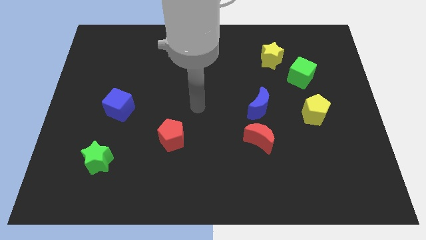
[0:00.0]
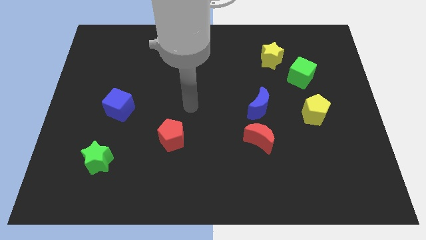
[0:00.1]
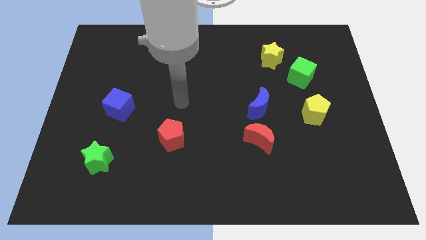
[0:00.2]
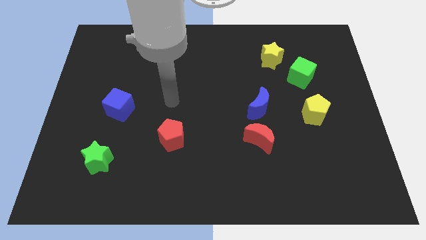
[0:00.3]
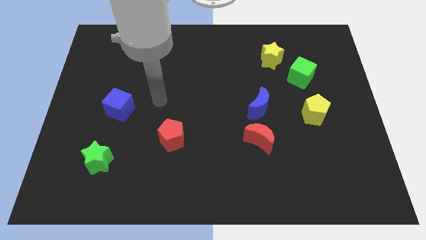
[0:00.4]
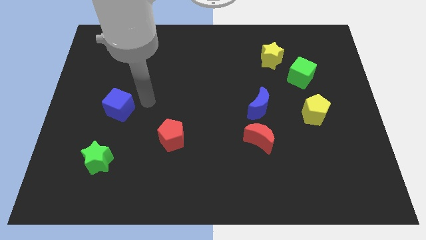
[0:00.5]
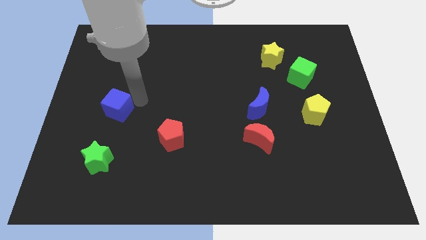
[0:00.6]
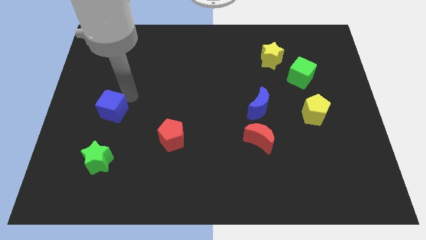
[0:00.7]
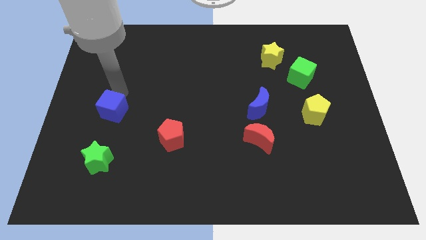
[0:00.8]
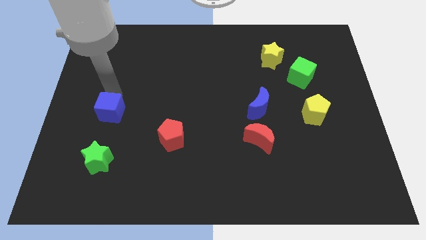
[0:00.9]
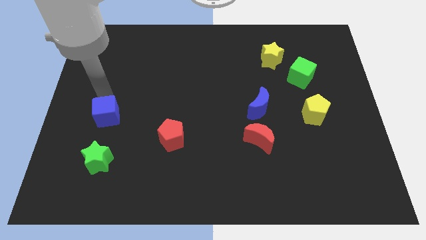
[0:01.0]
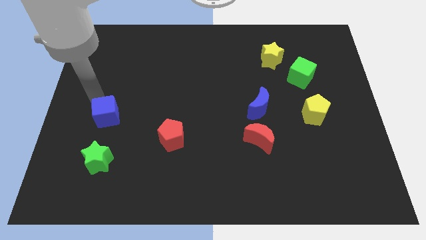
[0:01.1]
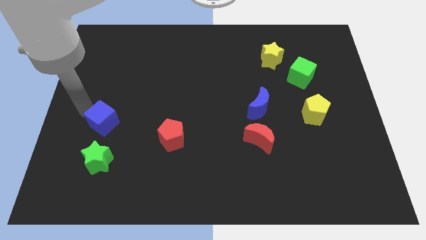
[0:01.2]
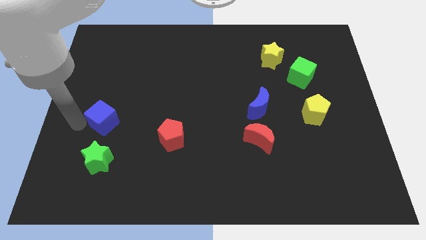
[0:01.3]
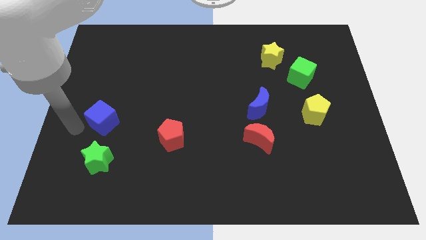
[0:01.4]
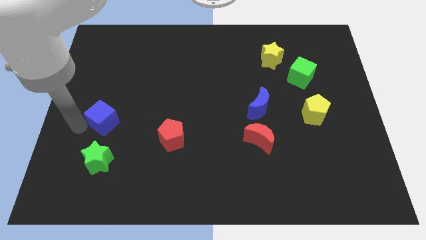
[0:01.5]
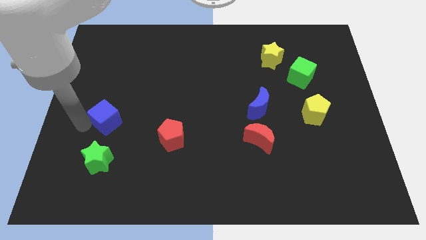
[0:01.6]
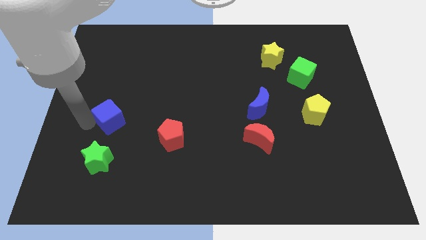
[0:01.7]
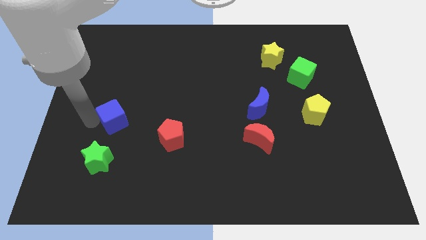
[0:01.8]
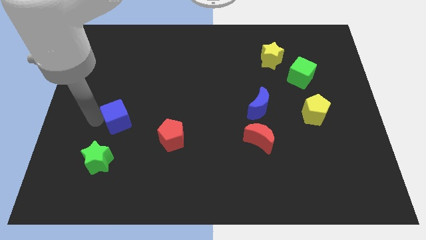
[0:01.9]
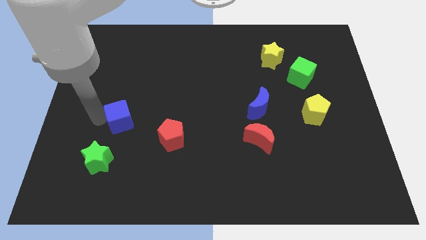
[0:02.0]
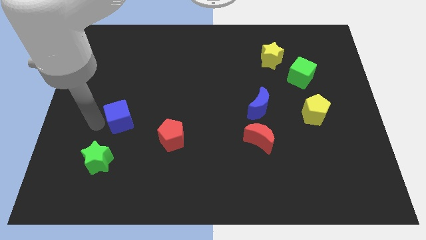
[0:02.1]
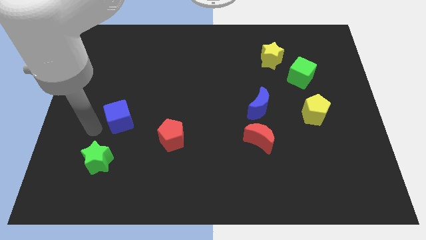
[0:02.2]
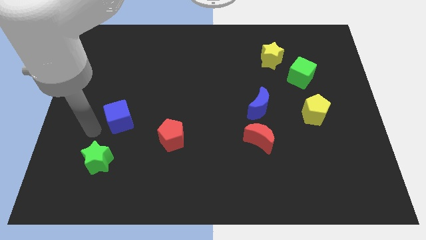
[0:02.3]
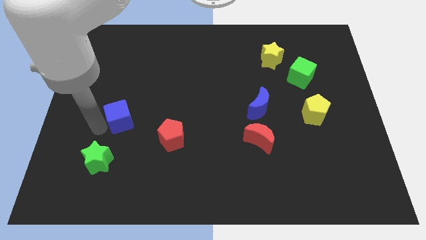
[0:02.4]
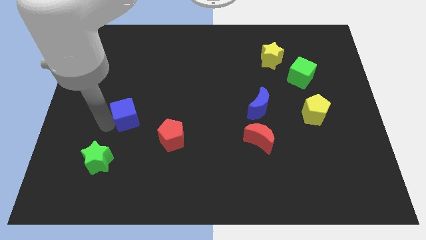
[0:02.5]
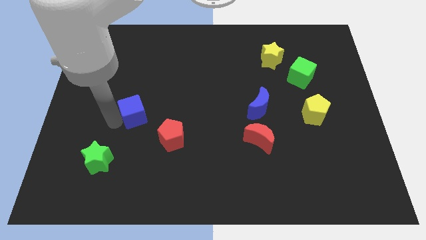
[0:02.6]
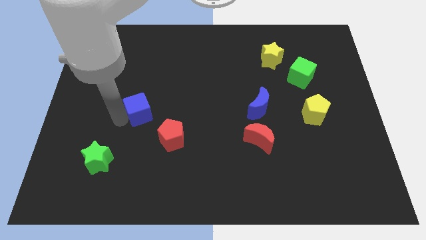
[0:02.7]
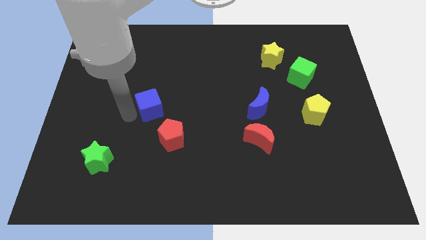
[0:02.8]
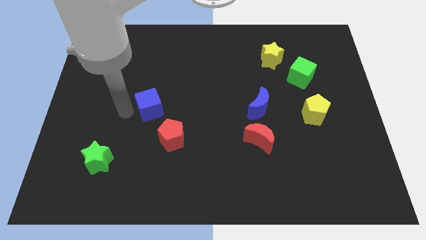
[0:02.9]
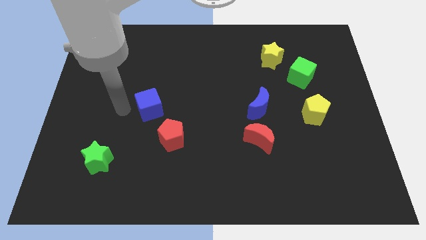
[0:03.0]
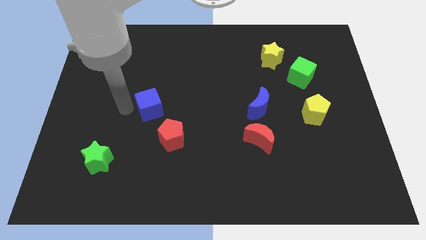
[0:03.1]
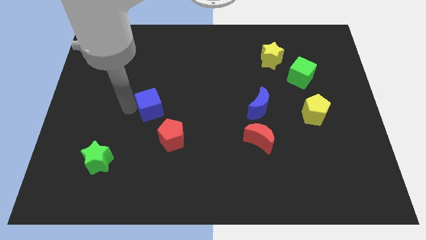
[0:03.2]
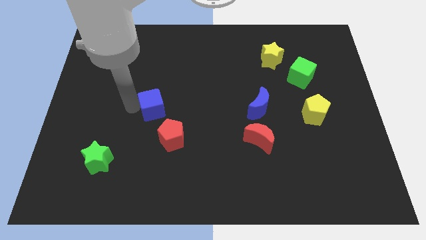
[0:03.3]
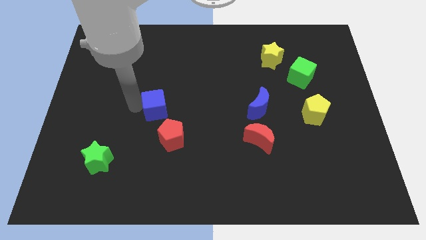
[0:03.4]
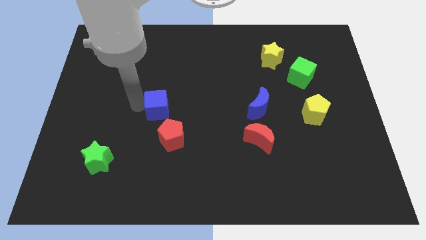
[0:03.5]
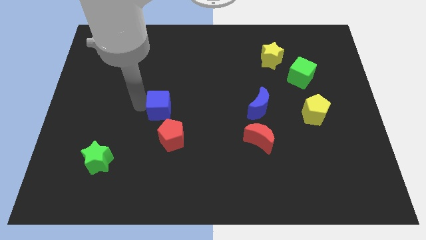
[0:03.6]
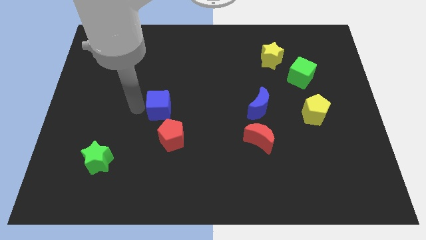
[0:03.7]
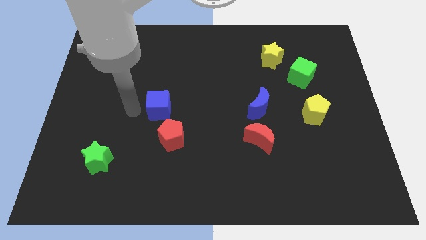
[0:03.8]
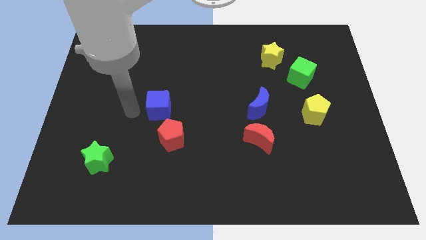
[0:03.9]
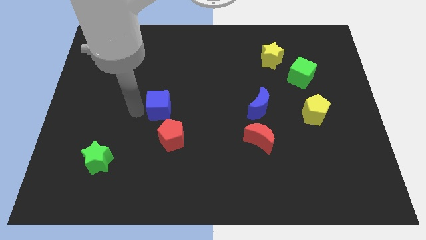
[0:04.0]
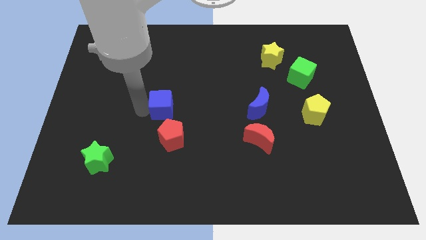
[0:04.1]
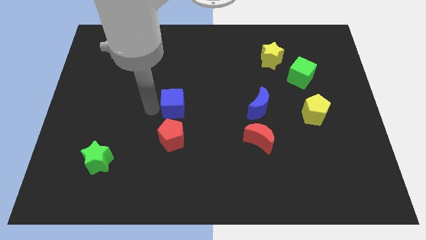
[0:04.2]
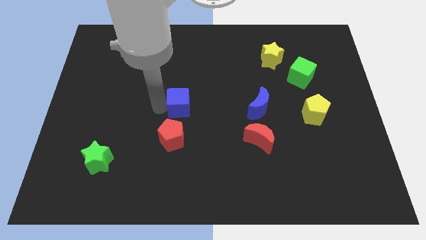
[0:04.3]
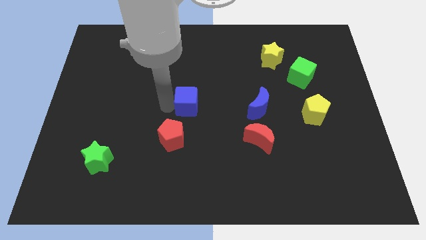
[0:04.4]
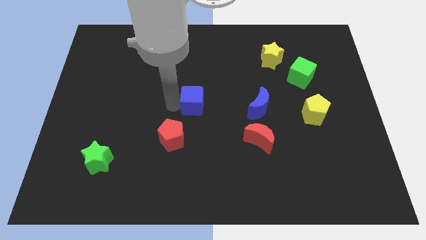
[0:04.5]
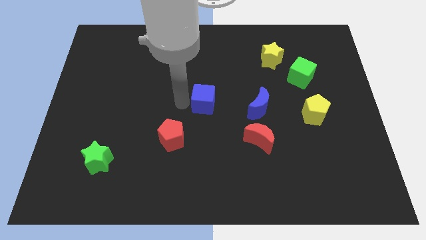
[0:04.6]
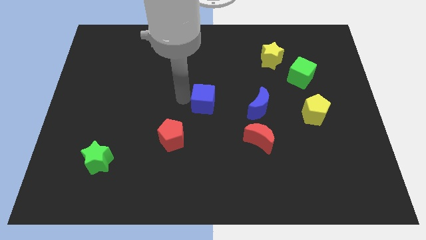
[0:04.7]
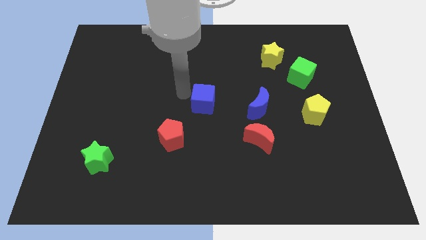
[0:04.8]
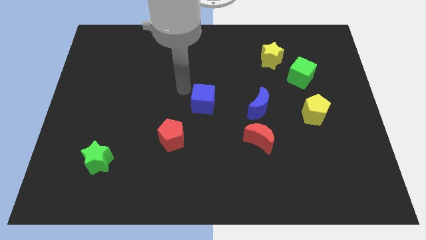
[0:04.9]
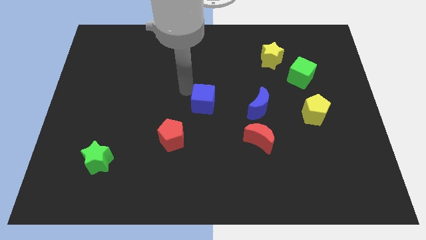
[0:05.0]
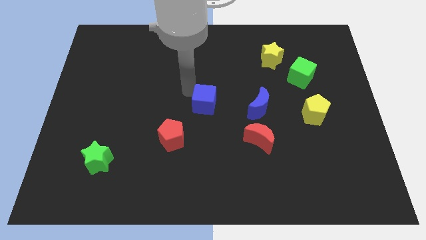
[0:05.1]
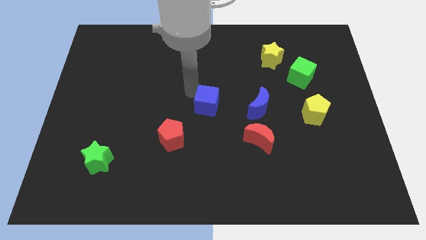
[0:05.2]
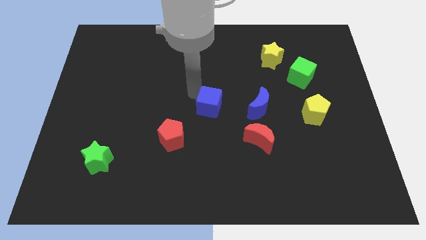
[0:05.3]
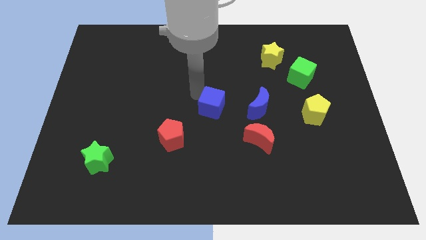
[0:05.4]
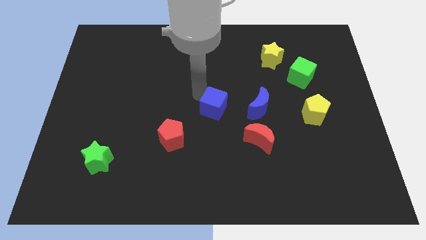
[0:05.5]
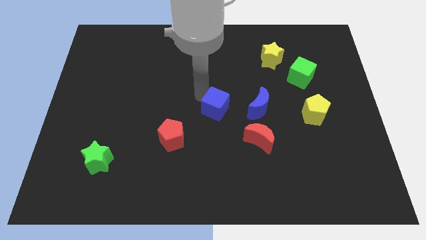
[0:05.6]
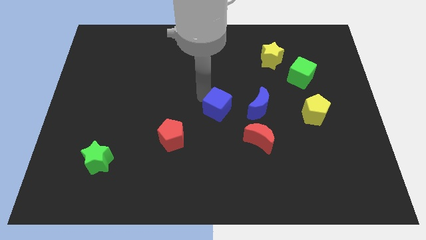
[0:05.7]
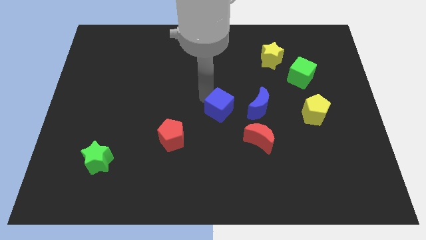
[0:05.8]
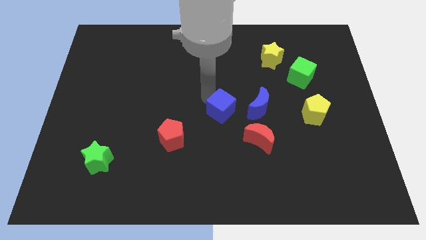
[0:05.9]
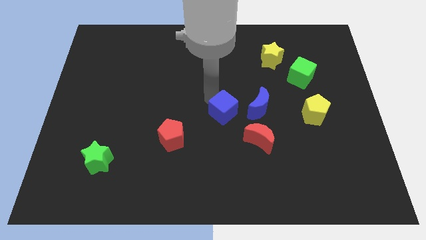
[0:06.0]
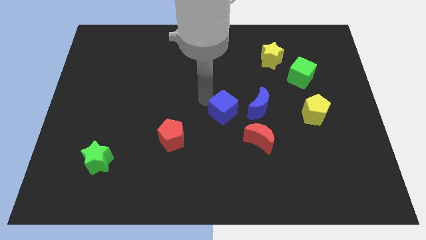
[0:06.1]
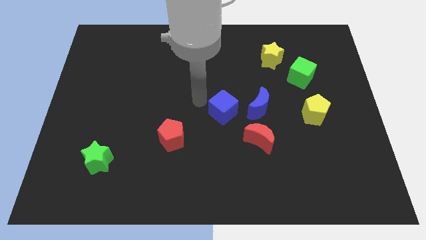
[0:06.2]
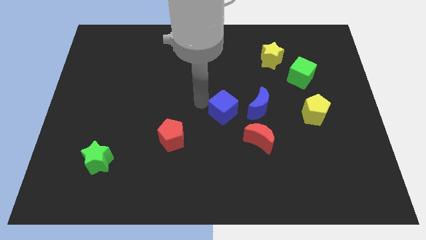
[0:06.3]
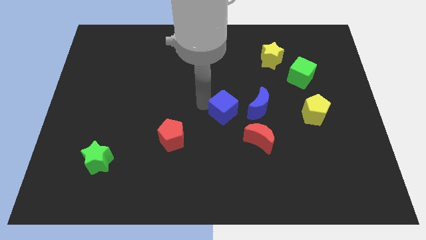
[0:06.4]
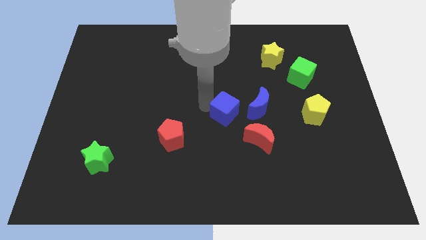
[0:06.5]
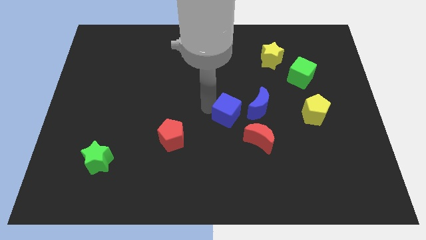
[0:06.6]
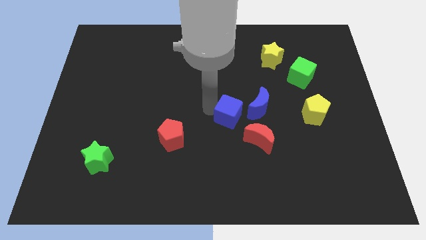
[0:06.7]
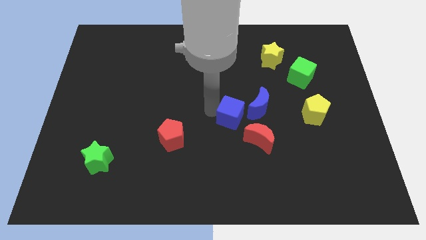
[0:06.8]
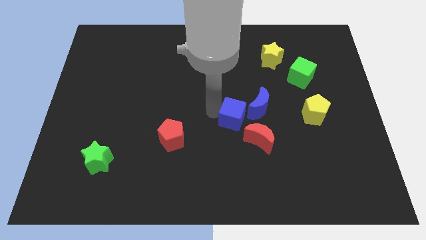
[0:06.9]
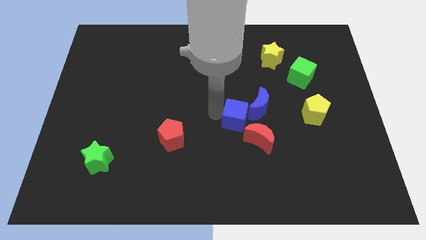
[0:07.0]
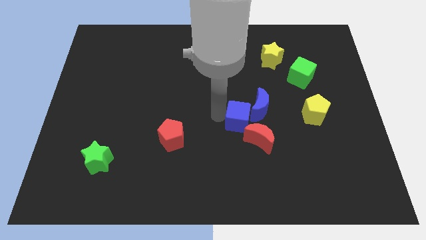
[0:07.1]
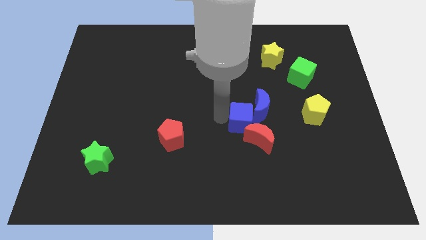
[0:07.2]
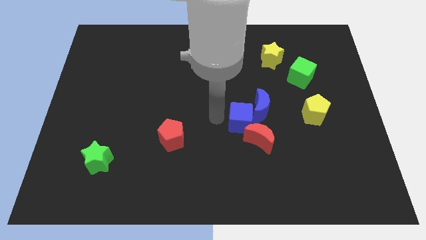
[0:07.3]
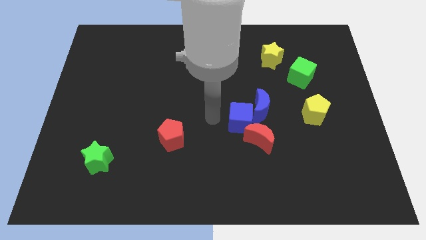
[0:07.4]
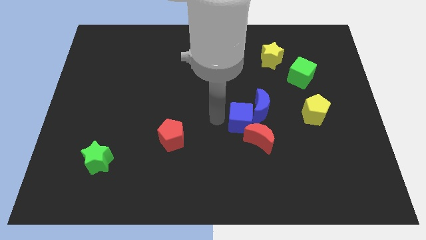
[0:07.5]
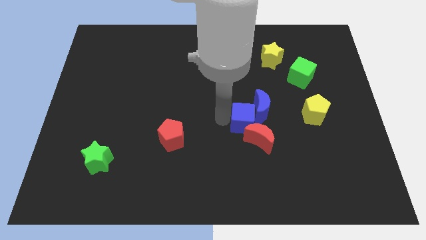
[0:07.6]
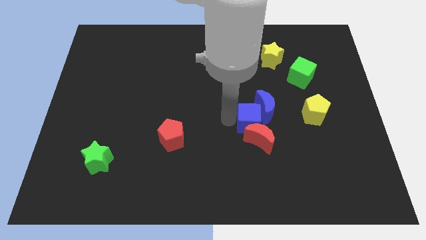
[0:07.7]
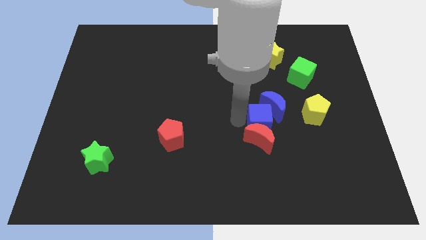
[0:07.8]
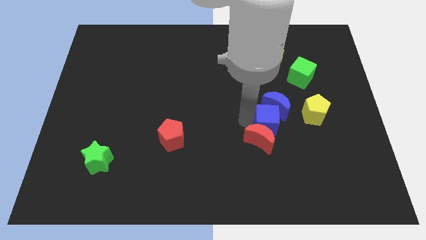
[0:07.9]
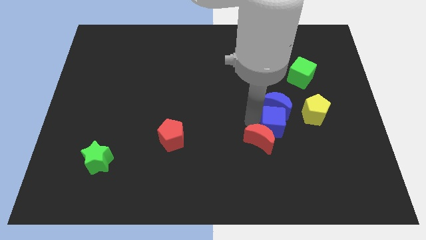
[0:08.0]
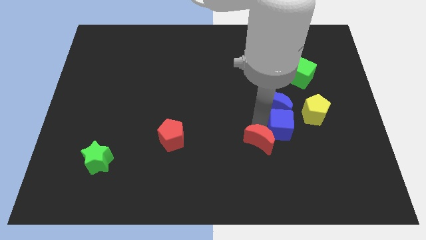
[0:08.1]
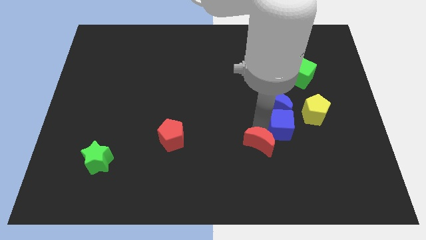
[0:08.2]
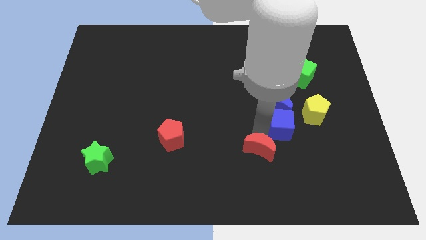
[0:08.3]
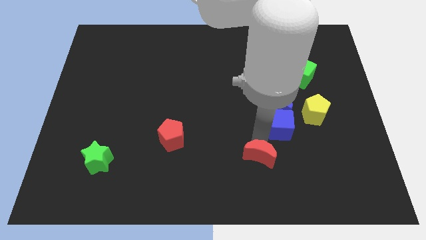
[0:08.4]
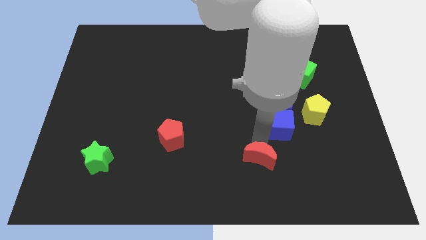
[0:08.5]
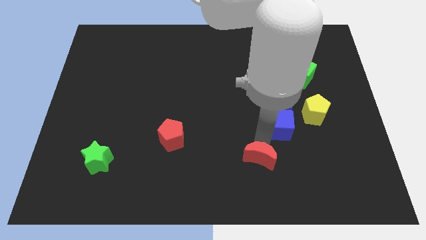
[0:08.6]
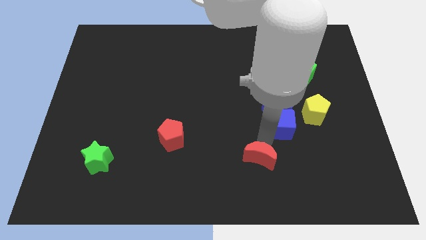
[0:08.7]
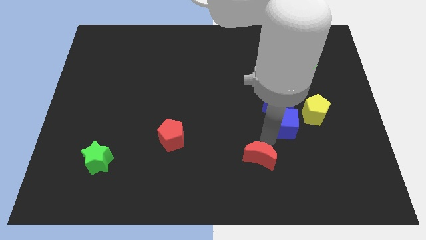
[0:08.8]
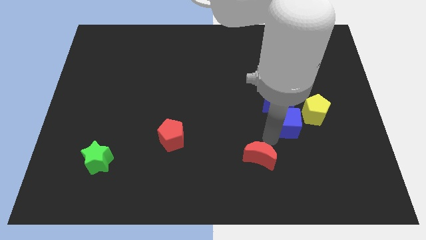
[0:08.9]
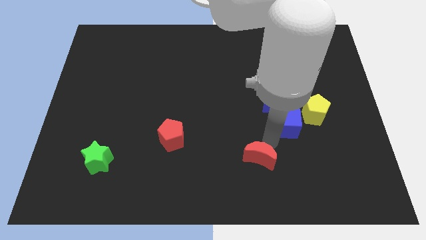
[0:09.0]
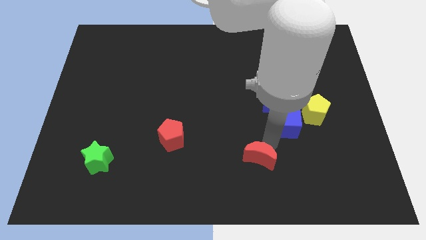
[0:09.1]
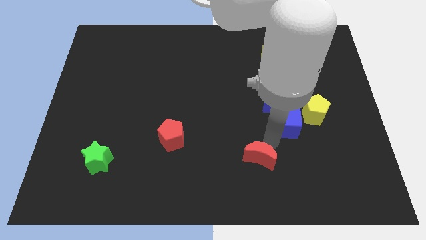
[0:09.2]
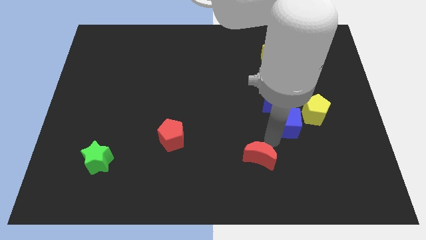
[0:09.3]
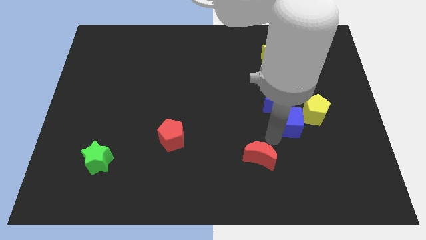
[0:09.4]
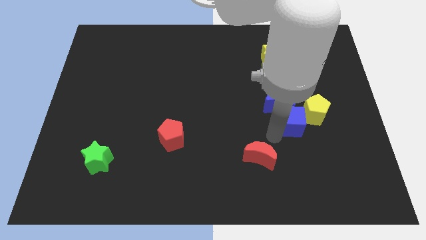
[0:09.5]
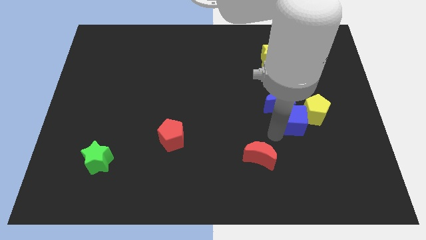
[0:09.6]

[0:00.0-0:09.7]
put the blue cube to the yellow pentagon
